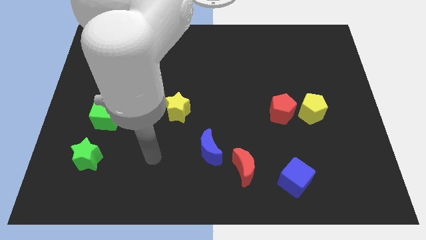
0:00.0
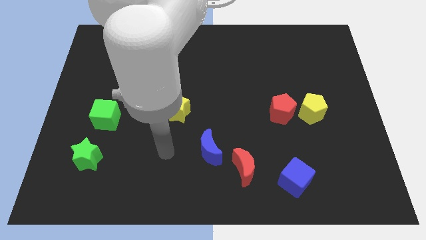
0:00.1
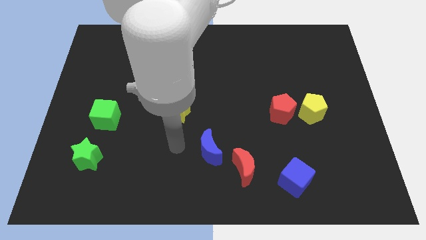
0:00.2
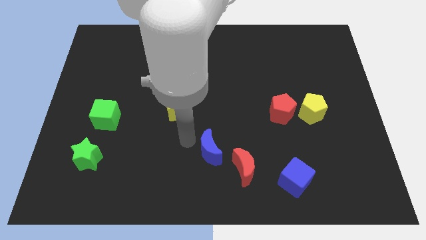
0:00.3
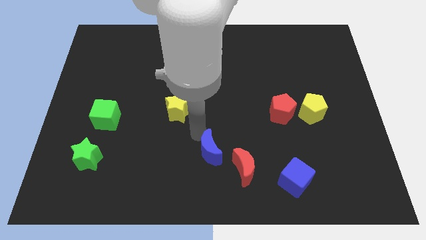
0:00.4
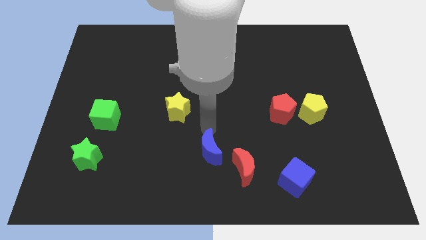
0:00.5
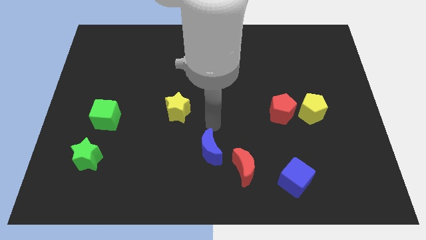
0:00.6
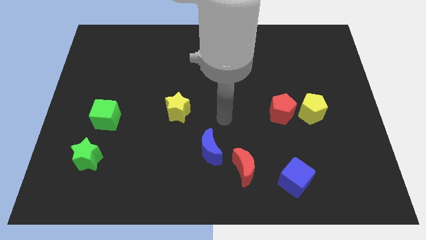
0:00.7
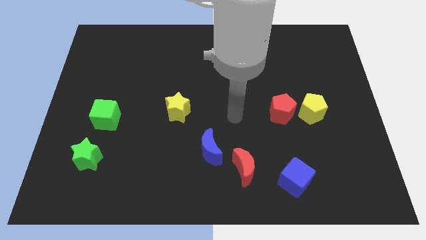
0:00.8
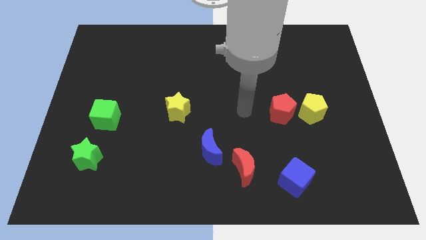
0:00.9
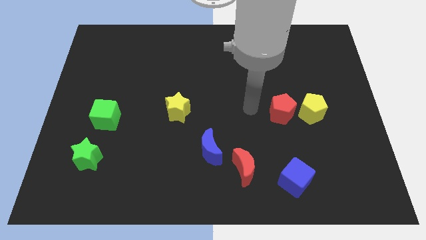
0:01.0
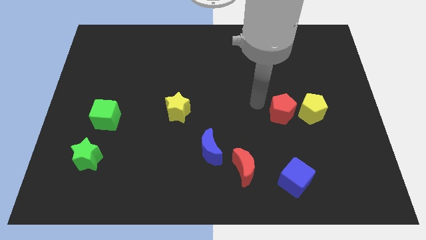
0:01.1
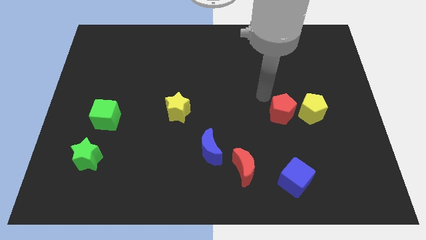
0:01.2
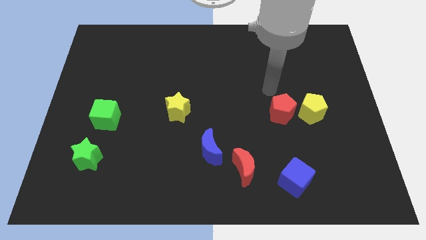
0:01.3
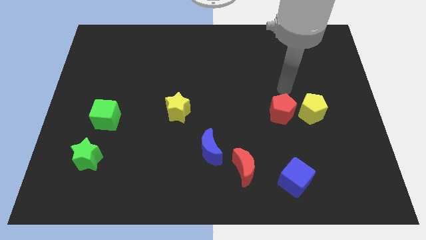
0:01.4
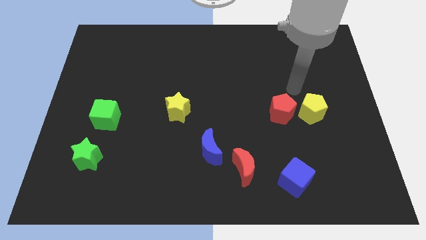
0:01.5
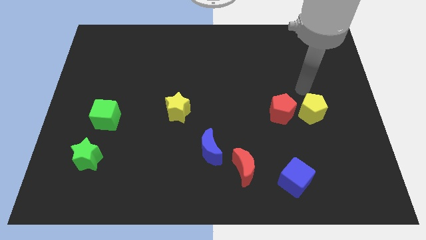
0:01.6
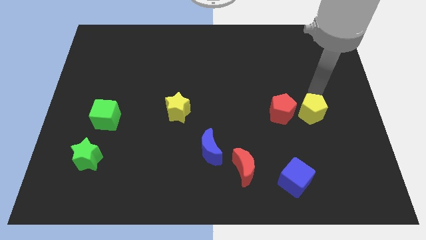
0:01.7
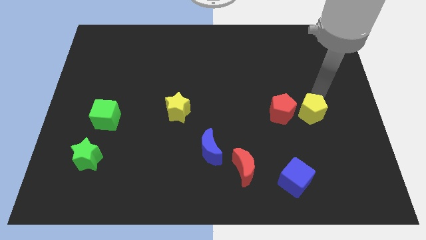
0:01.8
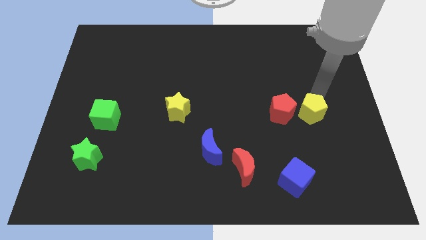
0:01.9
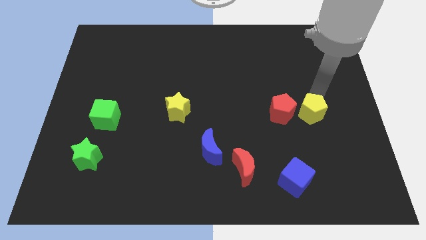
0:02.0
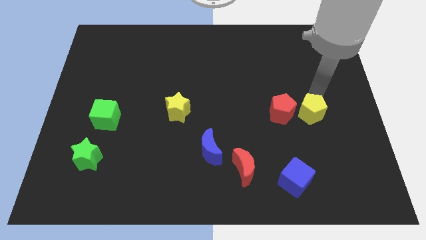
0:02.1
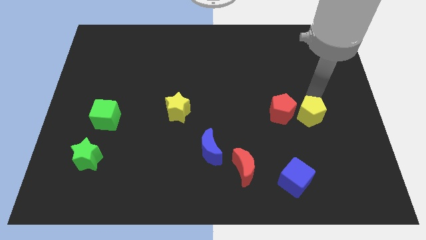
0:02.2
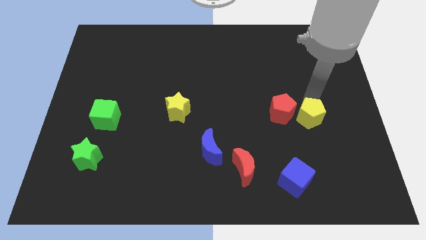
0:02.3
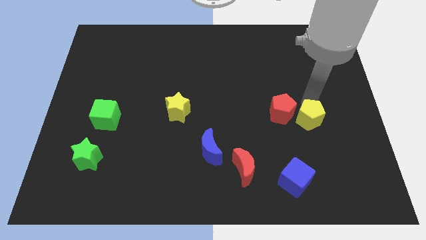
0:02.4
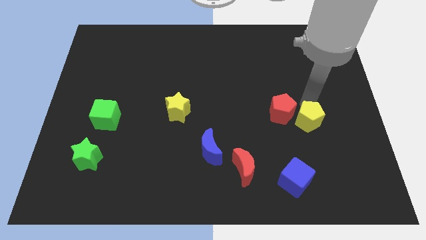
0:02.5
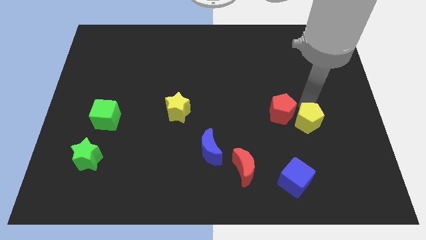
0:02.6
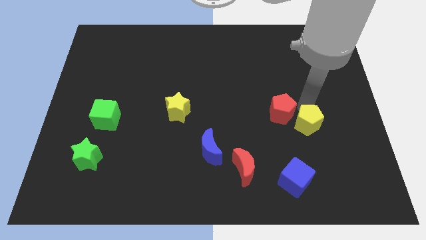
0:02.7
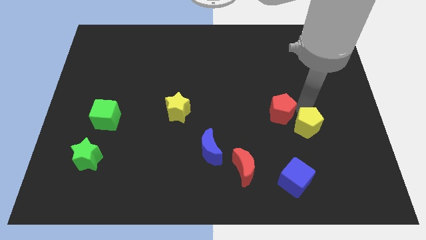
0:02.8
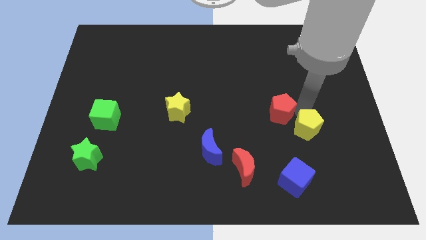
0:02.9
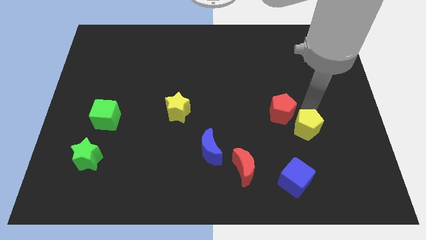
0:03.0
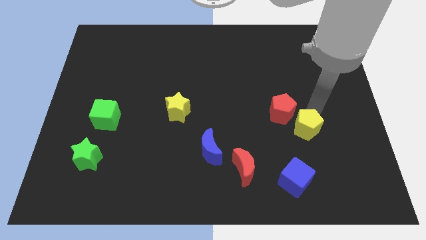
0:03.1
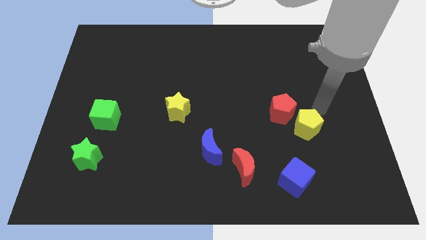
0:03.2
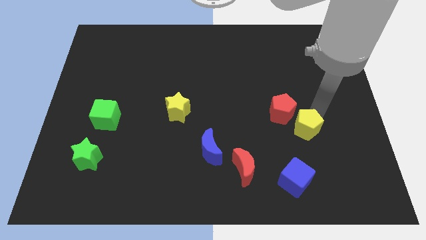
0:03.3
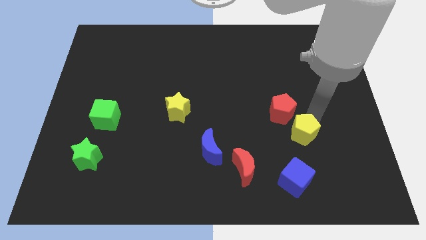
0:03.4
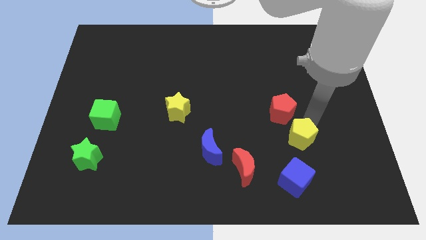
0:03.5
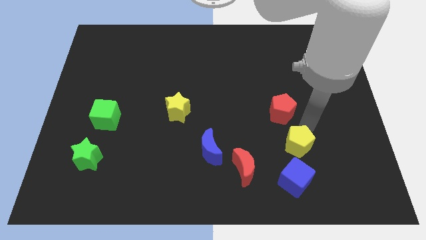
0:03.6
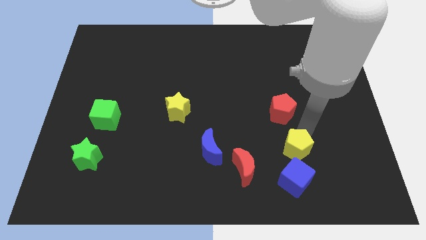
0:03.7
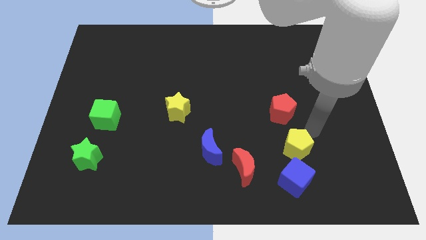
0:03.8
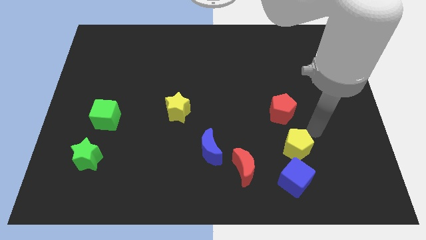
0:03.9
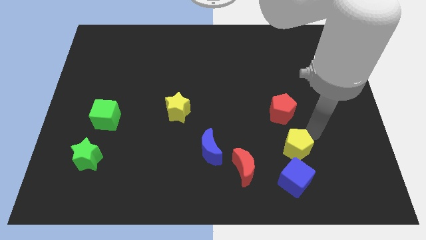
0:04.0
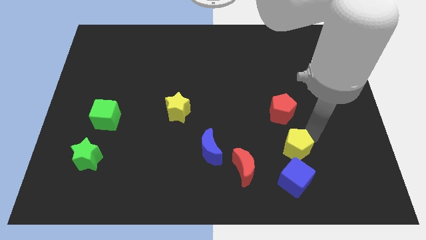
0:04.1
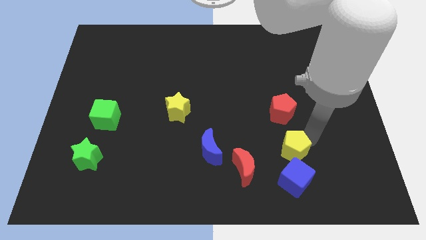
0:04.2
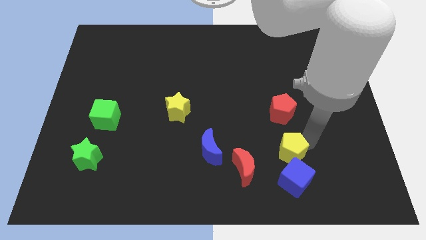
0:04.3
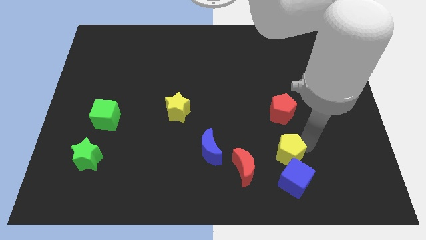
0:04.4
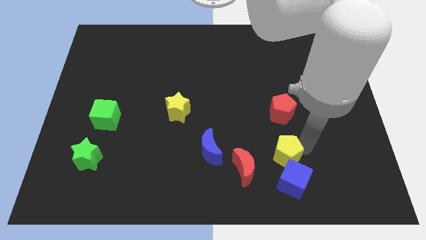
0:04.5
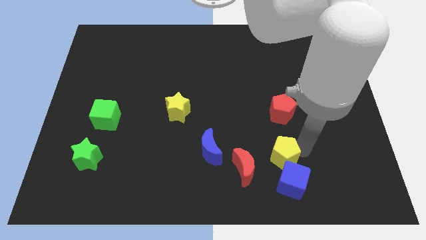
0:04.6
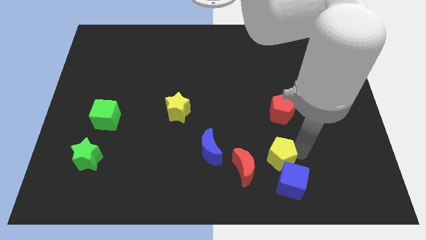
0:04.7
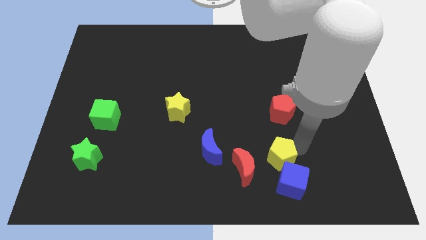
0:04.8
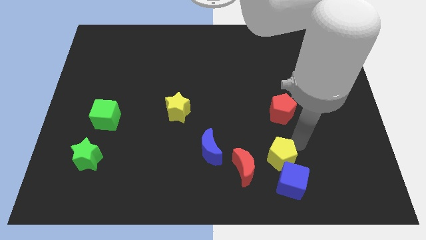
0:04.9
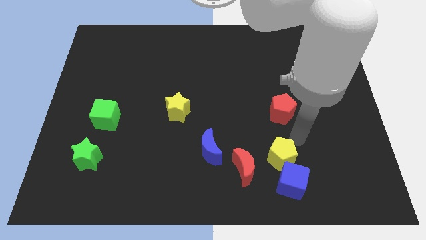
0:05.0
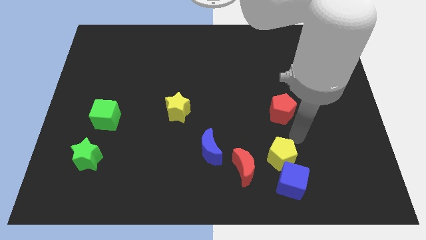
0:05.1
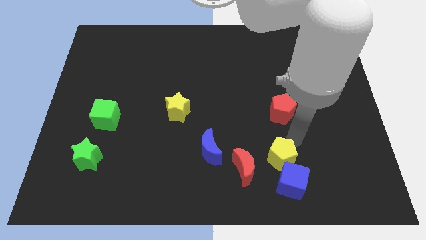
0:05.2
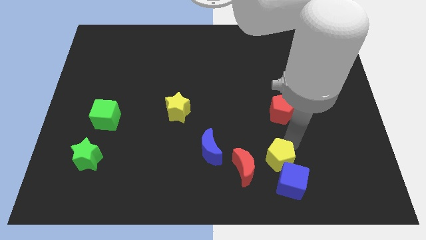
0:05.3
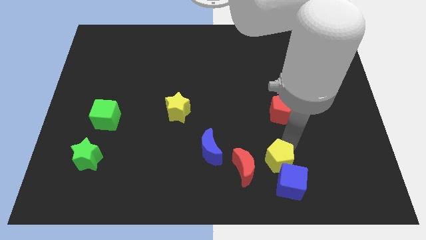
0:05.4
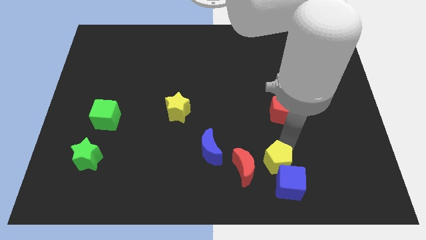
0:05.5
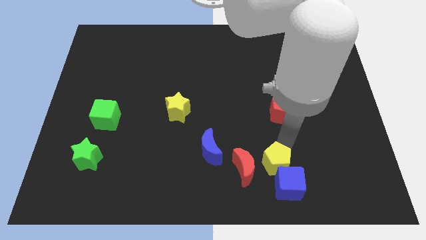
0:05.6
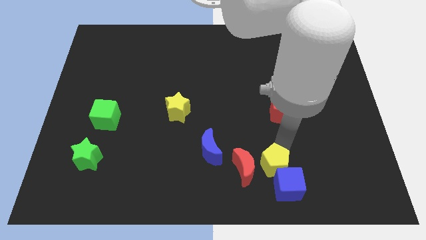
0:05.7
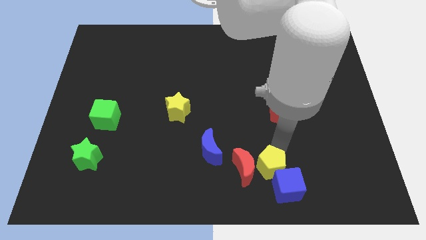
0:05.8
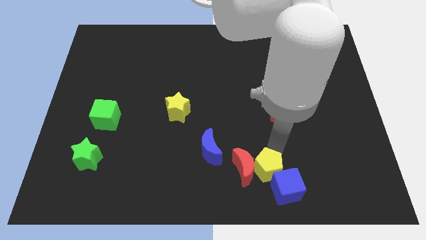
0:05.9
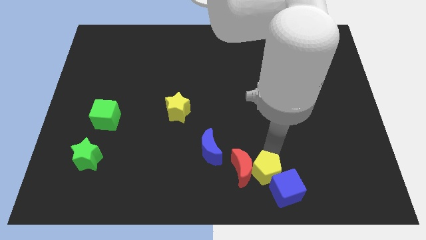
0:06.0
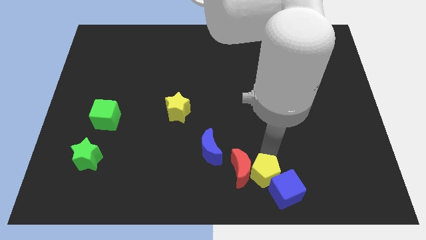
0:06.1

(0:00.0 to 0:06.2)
move the yellow pentagon to the bottom
